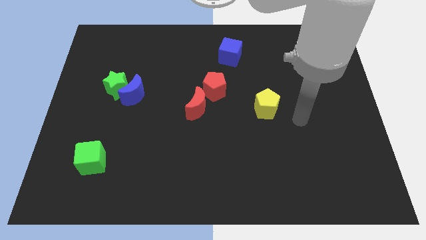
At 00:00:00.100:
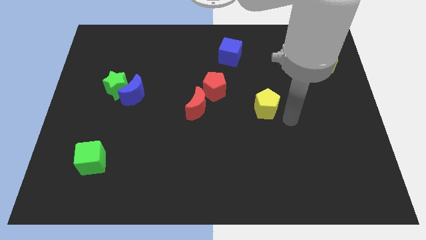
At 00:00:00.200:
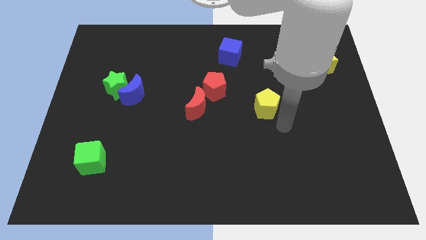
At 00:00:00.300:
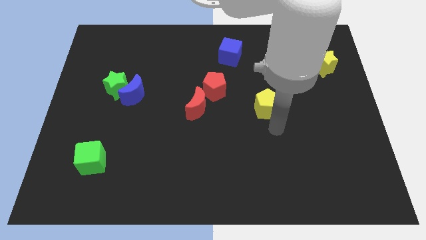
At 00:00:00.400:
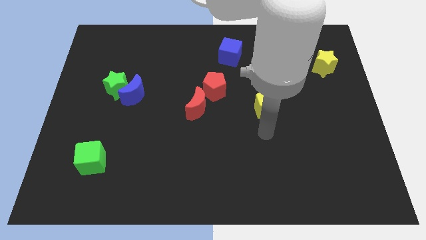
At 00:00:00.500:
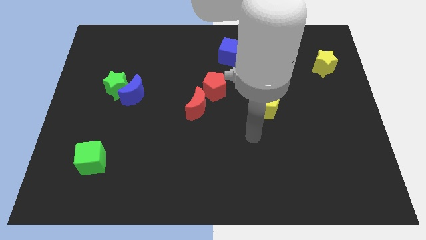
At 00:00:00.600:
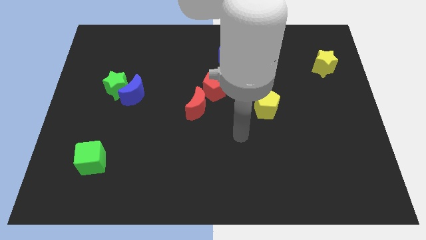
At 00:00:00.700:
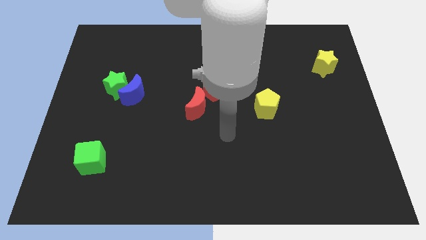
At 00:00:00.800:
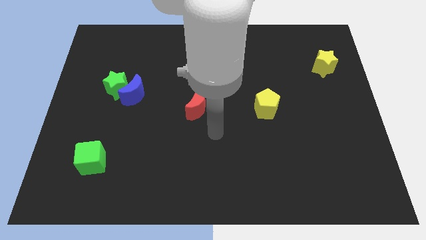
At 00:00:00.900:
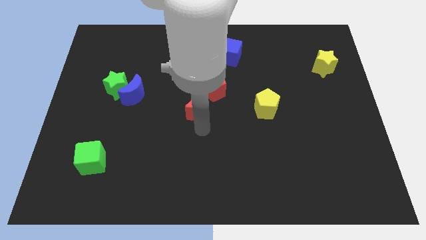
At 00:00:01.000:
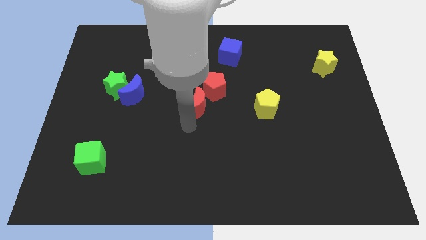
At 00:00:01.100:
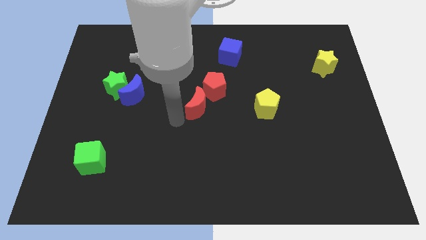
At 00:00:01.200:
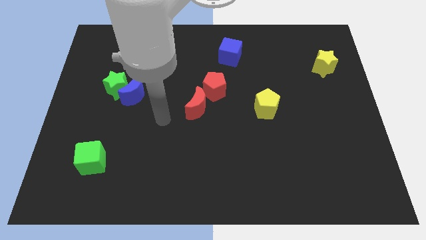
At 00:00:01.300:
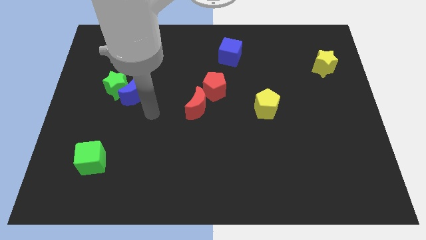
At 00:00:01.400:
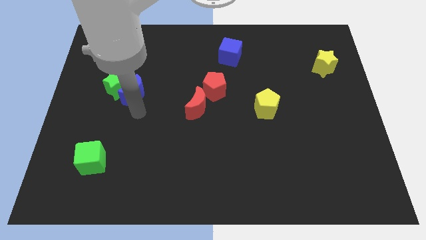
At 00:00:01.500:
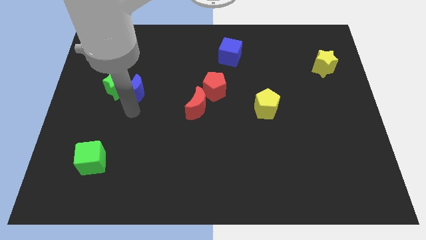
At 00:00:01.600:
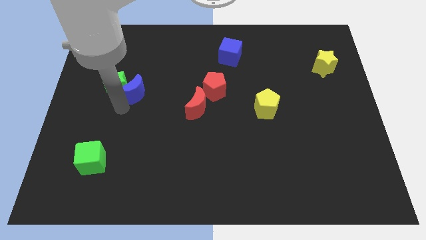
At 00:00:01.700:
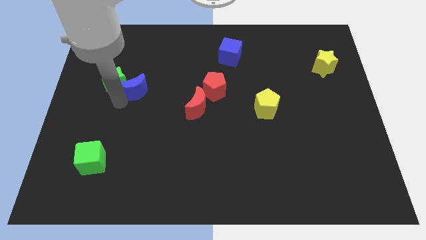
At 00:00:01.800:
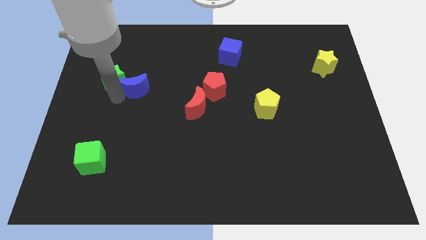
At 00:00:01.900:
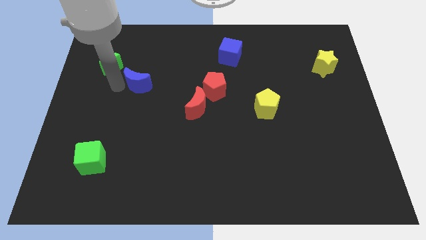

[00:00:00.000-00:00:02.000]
separate the blue moon from the green star

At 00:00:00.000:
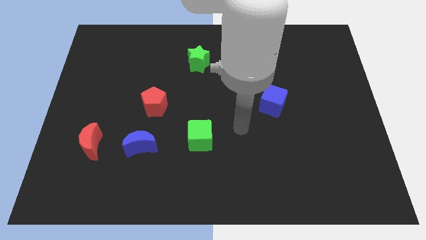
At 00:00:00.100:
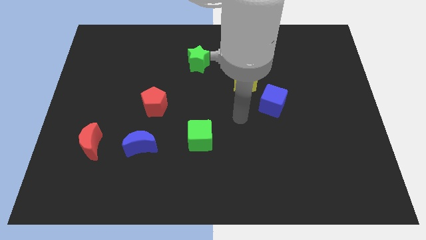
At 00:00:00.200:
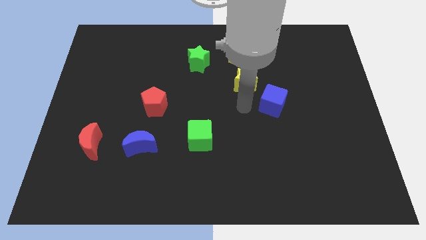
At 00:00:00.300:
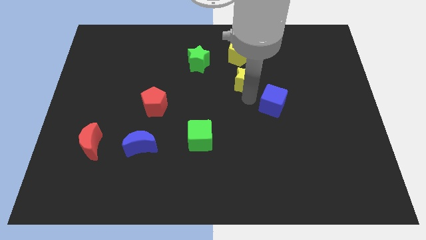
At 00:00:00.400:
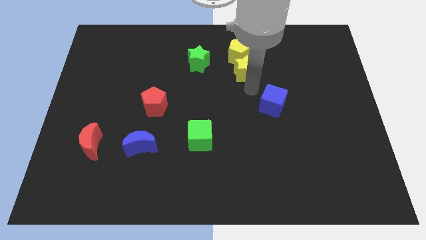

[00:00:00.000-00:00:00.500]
separate the blue cube from the yellow star

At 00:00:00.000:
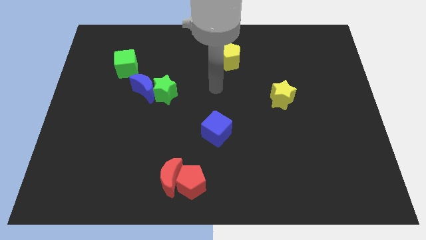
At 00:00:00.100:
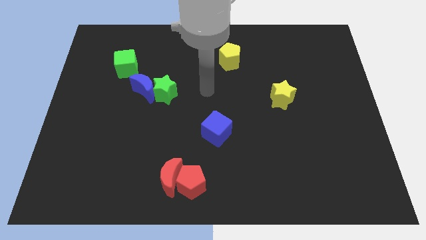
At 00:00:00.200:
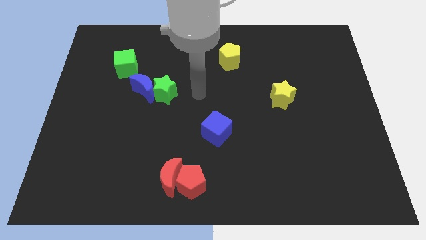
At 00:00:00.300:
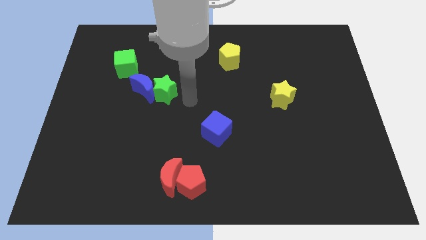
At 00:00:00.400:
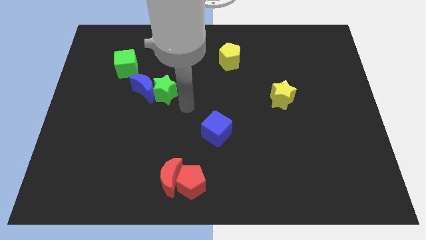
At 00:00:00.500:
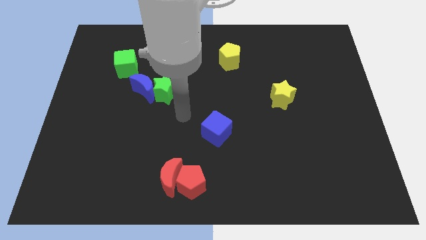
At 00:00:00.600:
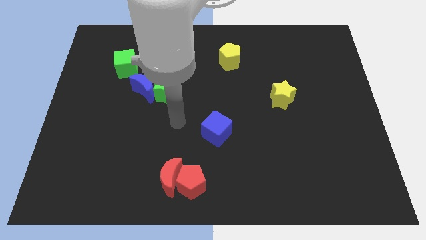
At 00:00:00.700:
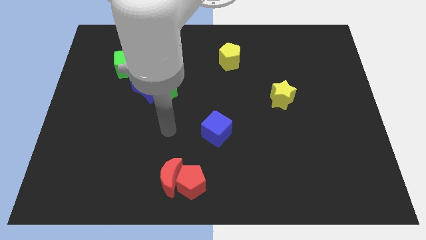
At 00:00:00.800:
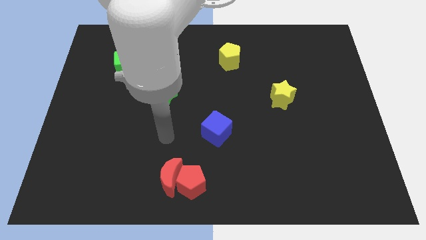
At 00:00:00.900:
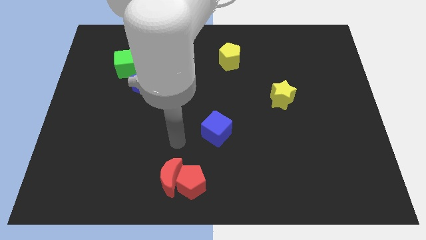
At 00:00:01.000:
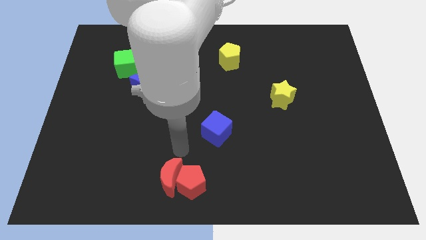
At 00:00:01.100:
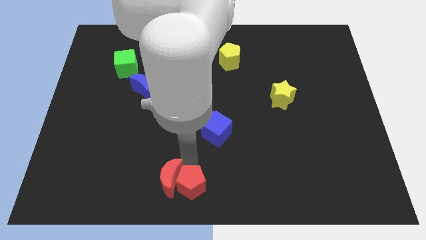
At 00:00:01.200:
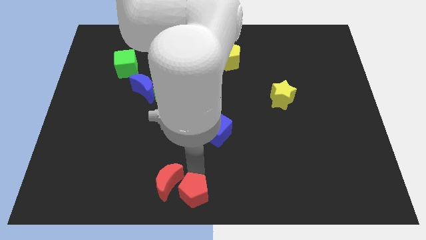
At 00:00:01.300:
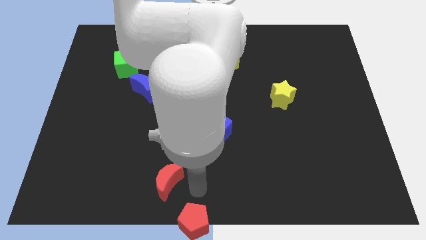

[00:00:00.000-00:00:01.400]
move the red moon away from the red pentagon

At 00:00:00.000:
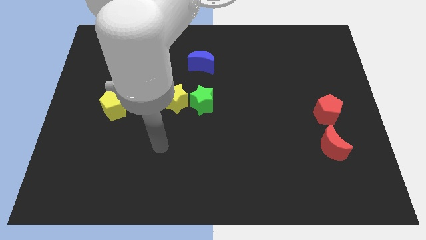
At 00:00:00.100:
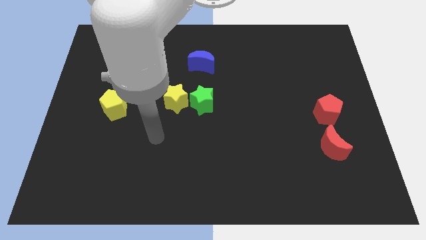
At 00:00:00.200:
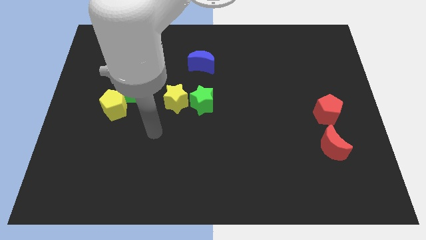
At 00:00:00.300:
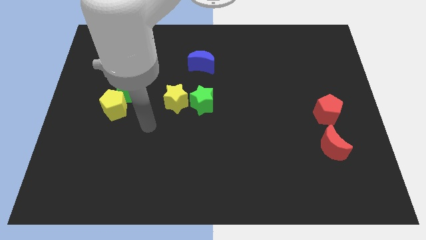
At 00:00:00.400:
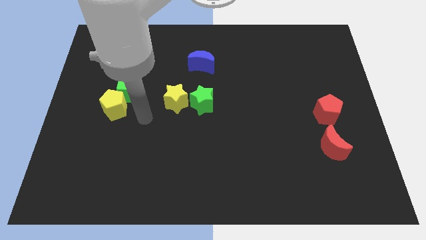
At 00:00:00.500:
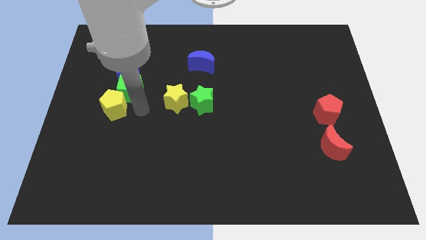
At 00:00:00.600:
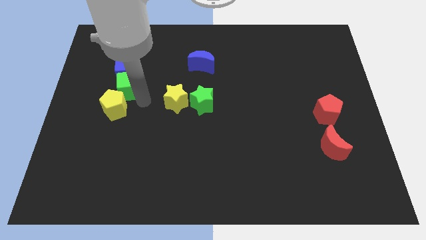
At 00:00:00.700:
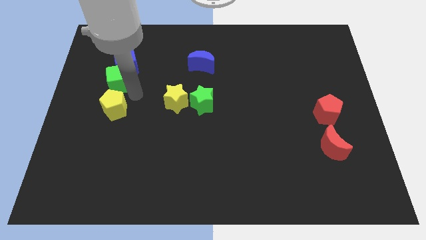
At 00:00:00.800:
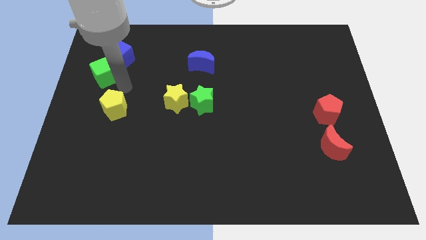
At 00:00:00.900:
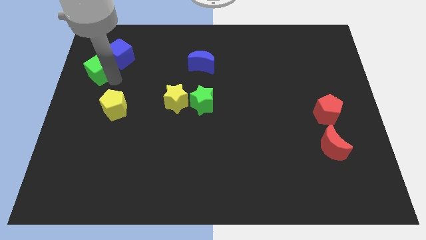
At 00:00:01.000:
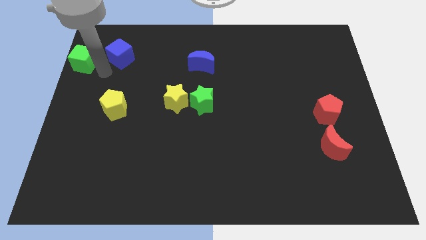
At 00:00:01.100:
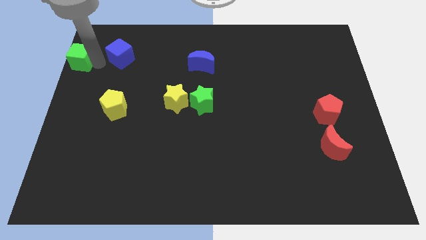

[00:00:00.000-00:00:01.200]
move the blue cube away from the green cube

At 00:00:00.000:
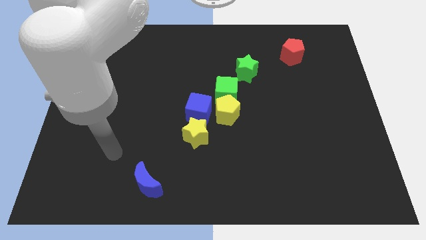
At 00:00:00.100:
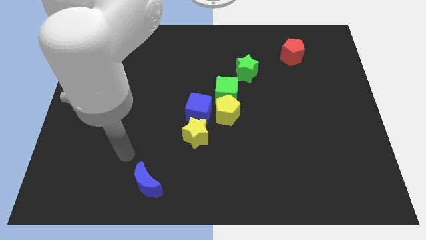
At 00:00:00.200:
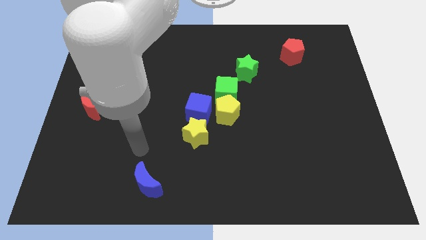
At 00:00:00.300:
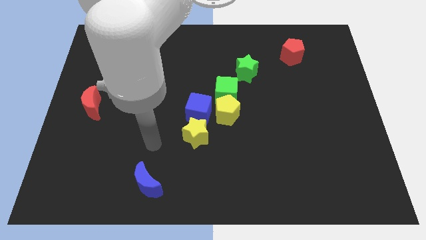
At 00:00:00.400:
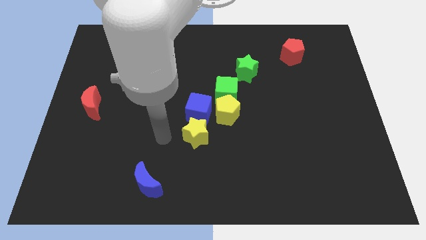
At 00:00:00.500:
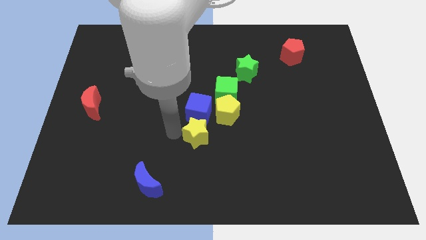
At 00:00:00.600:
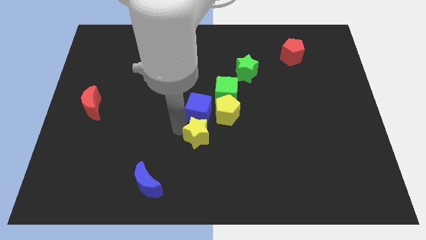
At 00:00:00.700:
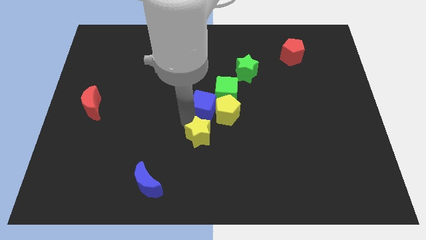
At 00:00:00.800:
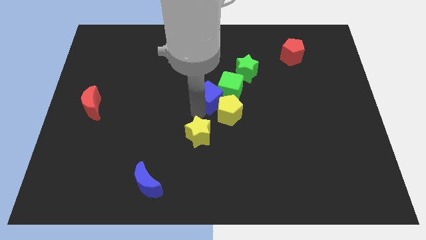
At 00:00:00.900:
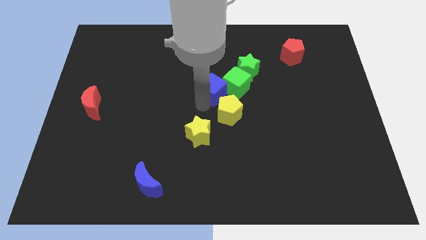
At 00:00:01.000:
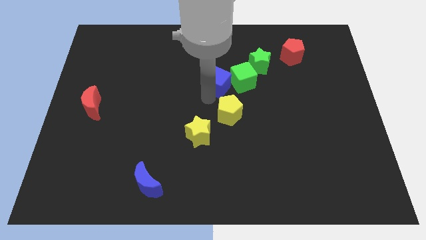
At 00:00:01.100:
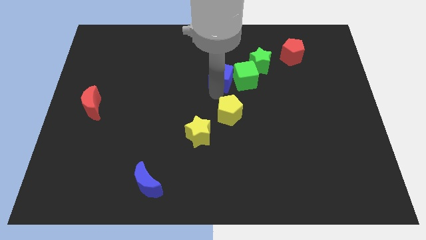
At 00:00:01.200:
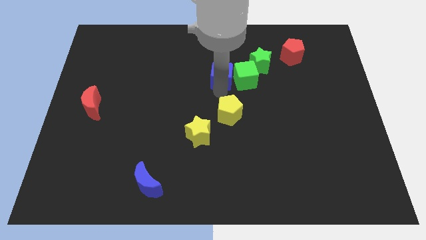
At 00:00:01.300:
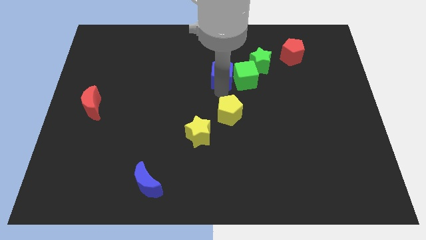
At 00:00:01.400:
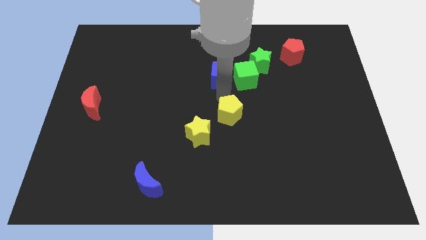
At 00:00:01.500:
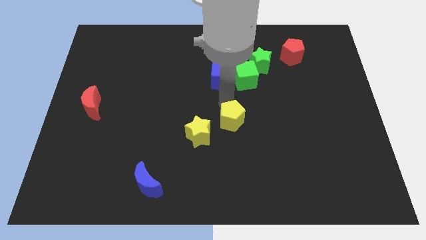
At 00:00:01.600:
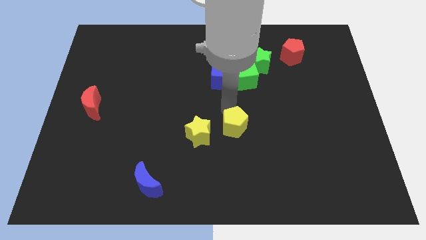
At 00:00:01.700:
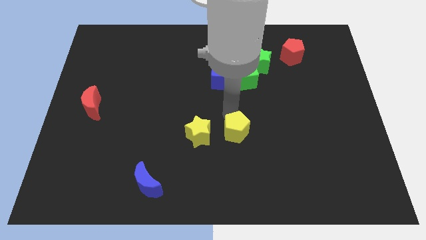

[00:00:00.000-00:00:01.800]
pull the yellow pentagon apart from the green cube, blue cube, and yellow star

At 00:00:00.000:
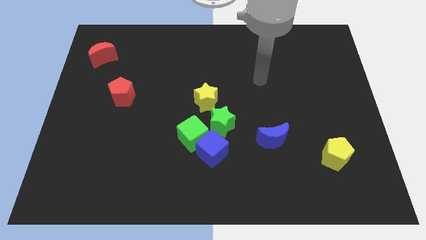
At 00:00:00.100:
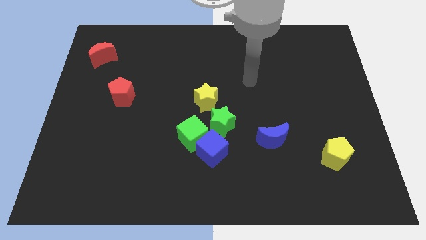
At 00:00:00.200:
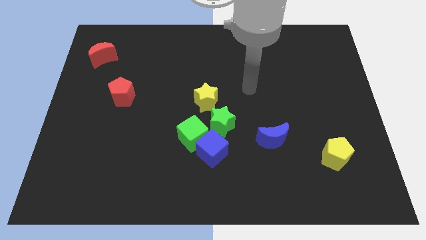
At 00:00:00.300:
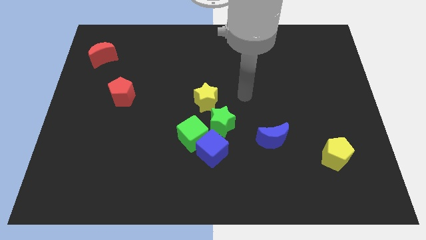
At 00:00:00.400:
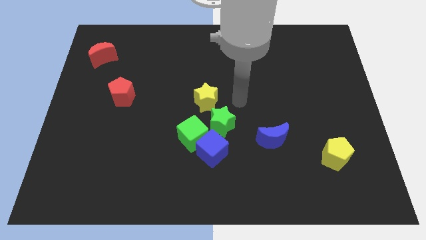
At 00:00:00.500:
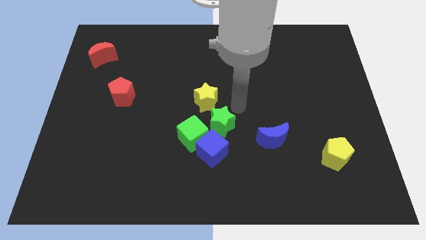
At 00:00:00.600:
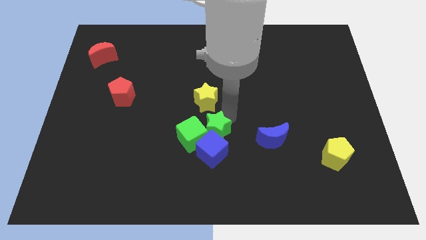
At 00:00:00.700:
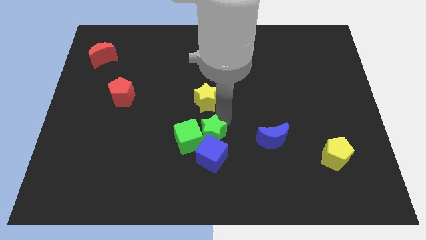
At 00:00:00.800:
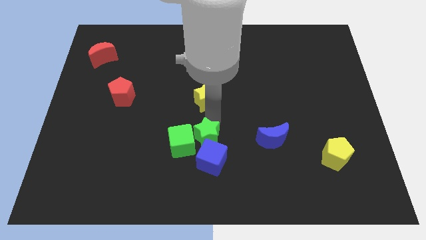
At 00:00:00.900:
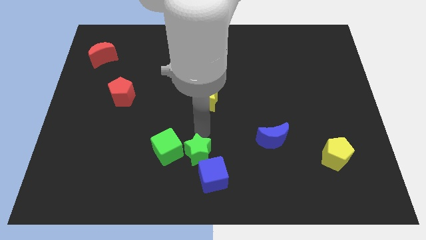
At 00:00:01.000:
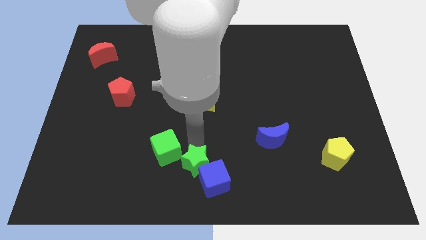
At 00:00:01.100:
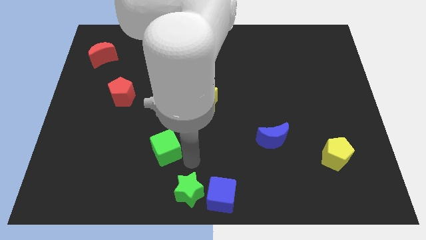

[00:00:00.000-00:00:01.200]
move the blue cube away from the green cube and green star

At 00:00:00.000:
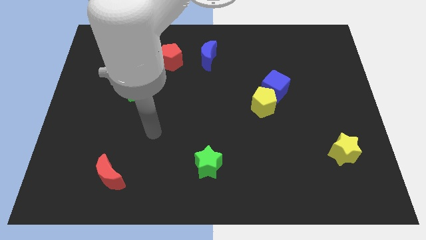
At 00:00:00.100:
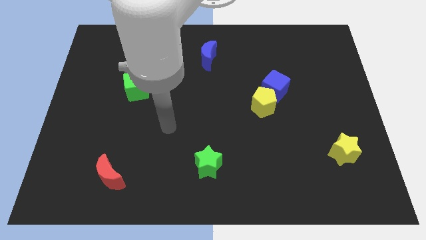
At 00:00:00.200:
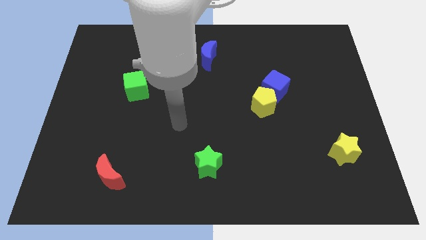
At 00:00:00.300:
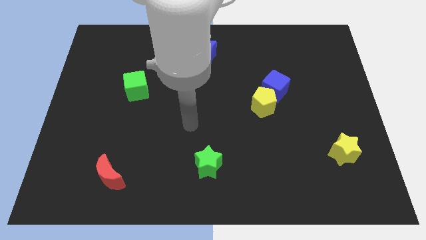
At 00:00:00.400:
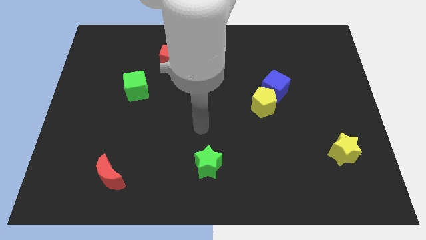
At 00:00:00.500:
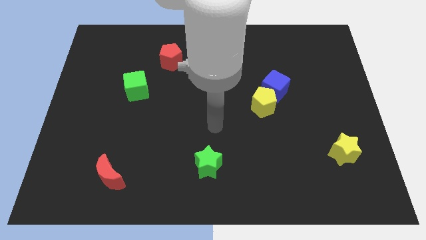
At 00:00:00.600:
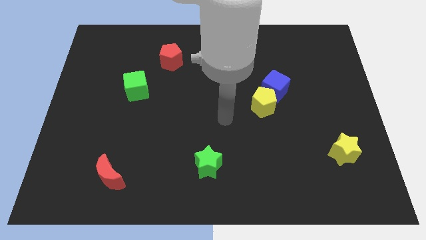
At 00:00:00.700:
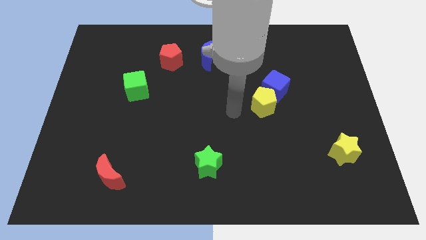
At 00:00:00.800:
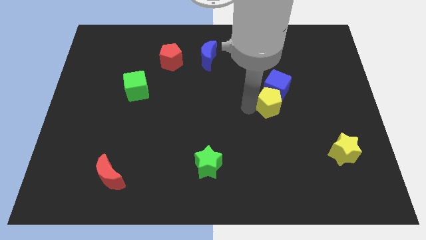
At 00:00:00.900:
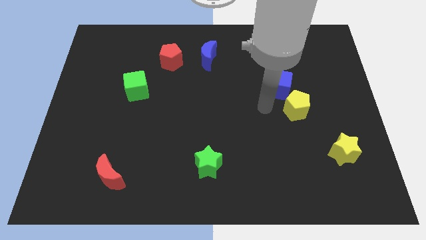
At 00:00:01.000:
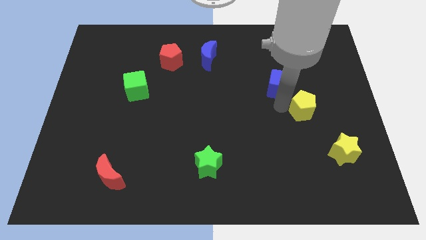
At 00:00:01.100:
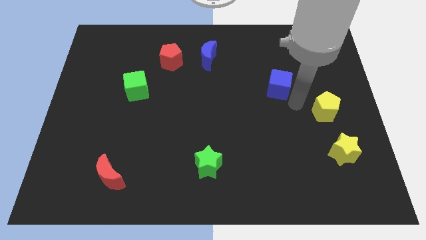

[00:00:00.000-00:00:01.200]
move the blue cube away from the yellow pentagon

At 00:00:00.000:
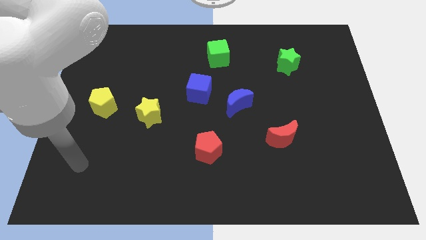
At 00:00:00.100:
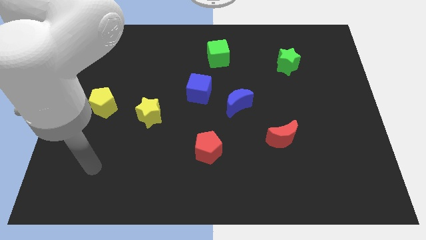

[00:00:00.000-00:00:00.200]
separate the blue moon from the blue cube
